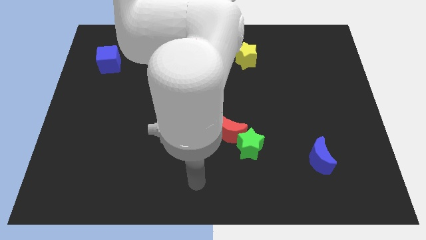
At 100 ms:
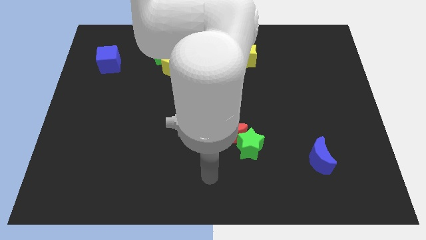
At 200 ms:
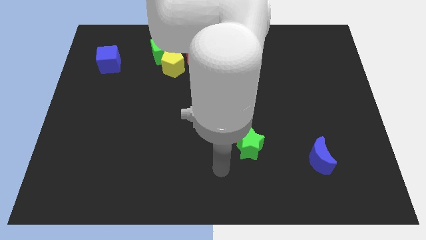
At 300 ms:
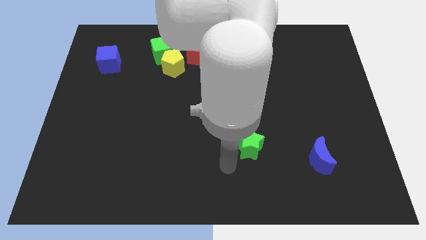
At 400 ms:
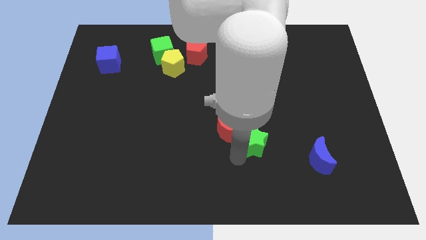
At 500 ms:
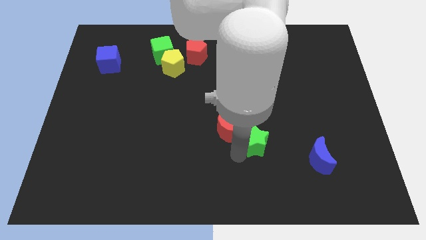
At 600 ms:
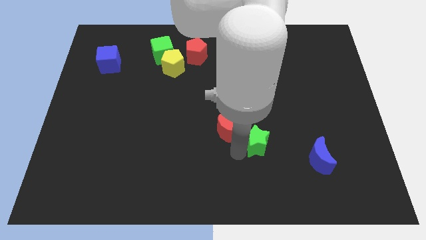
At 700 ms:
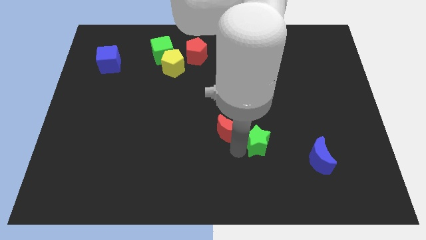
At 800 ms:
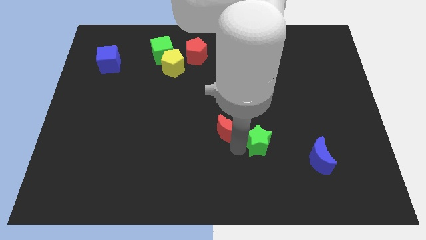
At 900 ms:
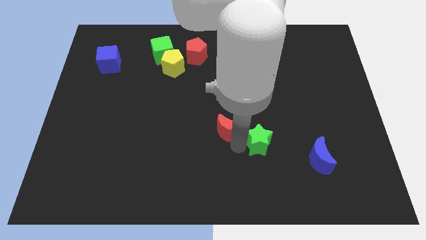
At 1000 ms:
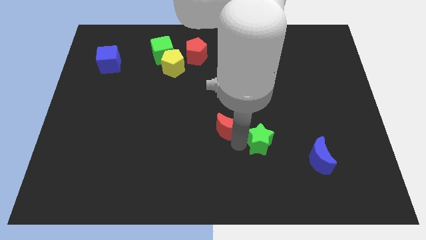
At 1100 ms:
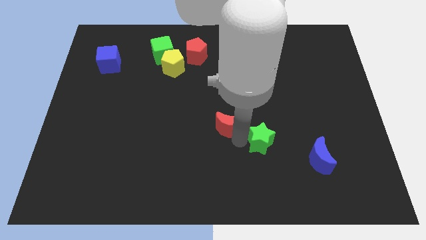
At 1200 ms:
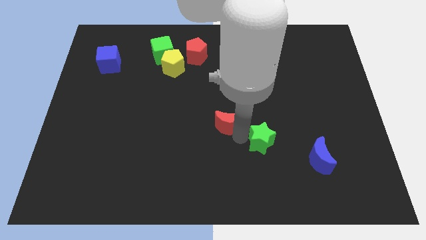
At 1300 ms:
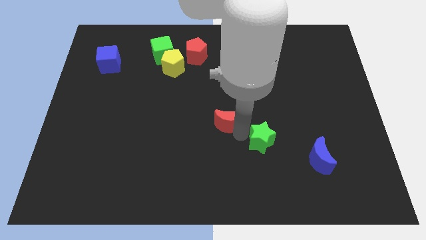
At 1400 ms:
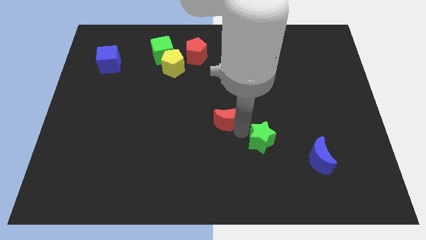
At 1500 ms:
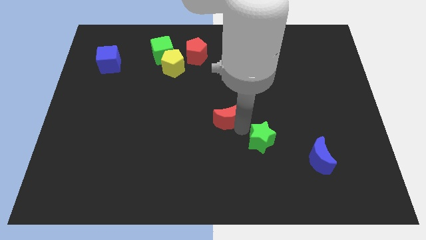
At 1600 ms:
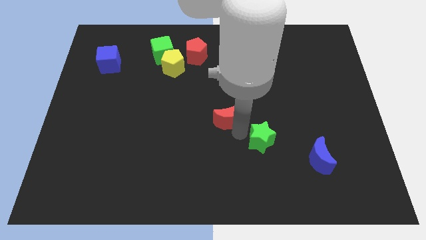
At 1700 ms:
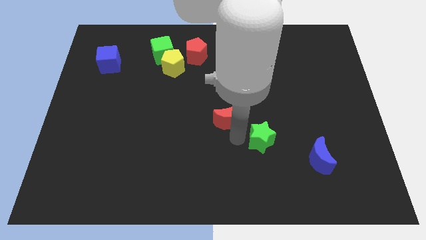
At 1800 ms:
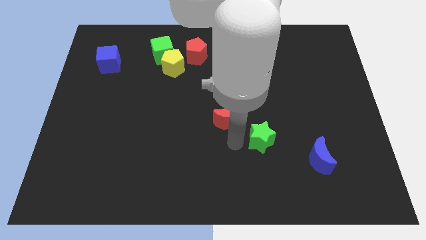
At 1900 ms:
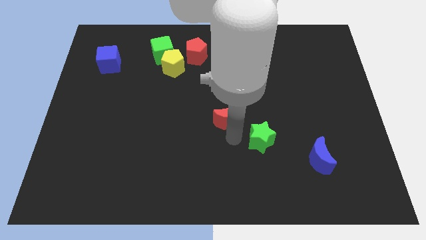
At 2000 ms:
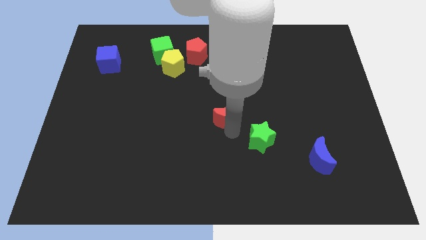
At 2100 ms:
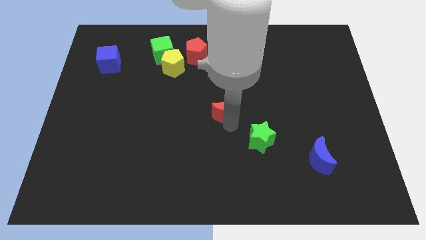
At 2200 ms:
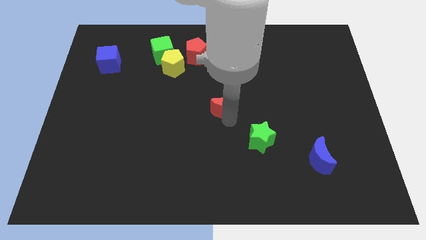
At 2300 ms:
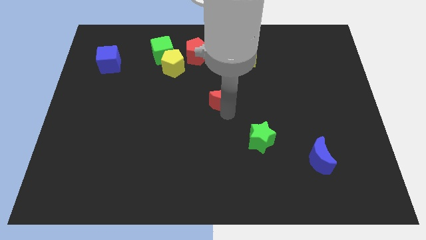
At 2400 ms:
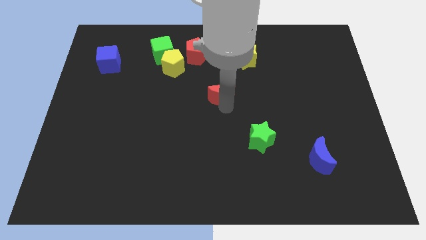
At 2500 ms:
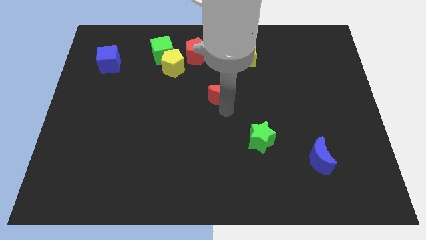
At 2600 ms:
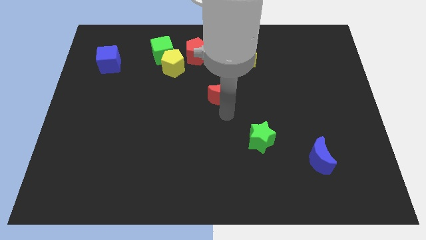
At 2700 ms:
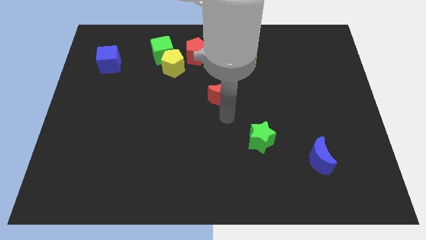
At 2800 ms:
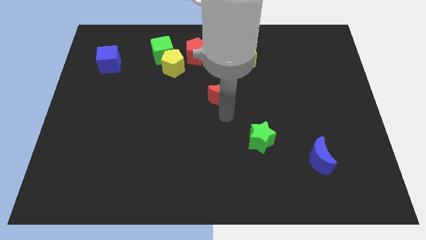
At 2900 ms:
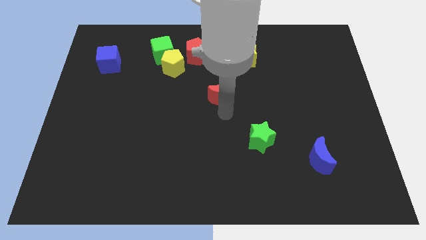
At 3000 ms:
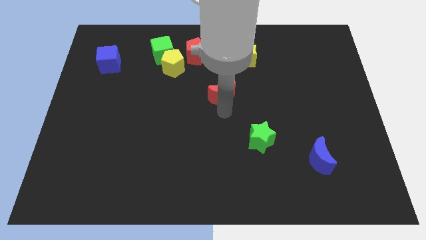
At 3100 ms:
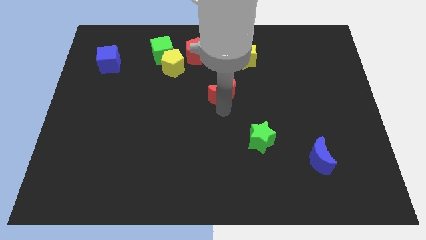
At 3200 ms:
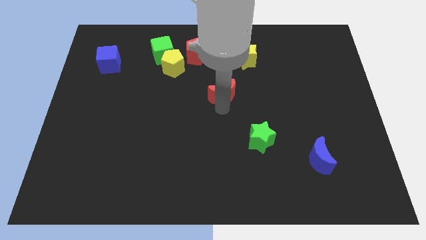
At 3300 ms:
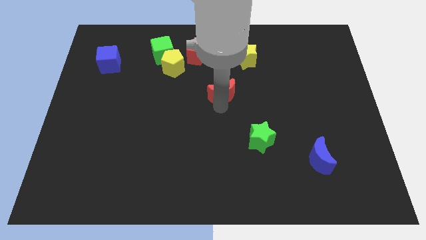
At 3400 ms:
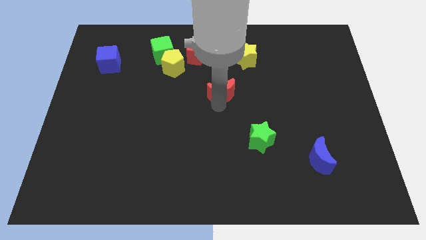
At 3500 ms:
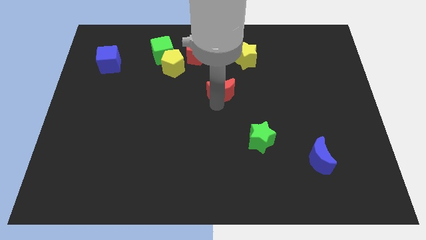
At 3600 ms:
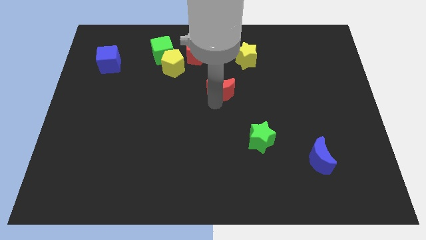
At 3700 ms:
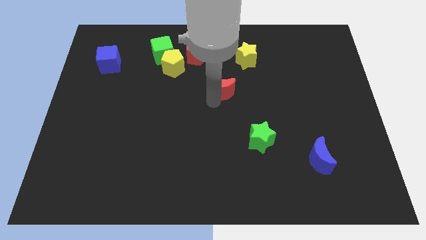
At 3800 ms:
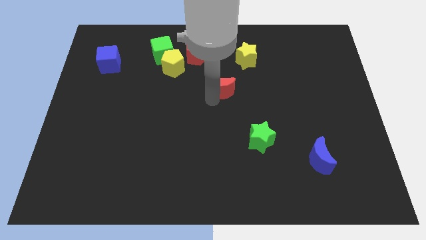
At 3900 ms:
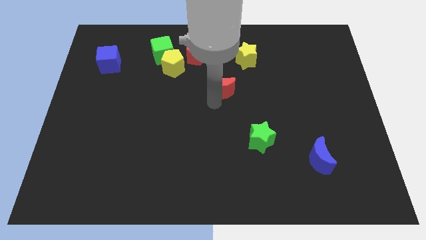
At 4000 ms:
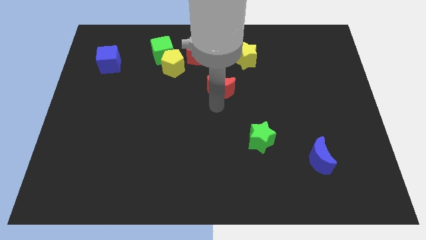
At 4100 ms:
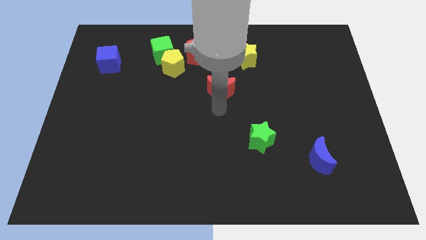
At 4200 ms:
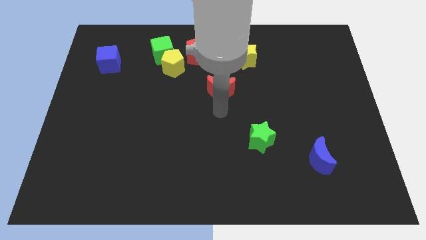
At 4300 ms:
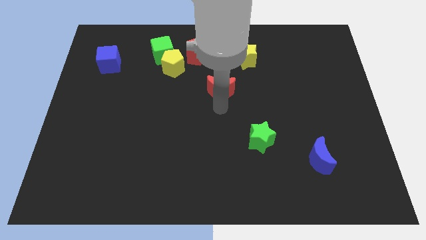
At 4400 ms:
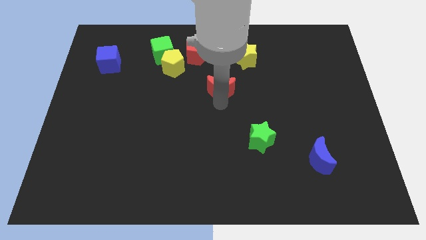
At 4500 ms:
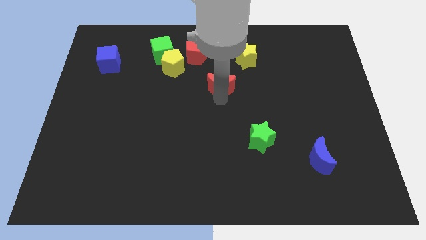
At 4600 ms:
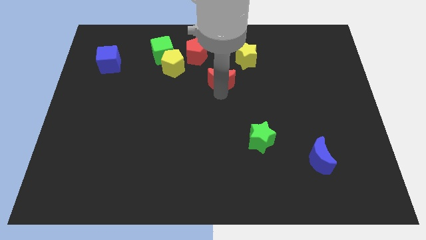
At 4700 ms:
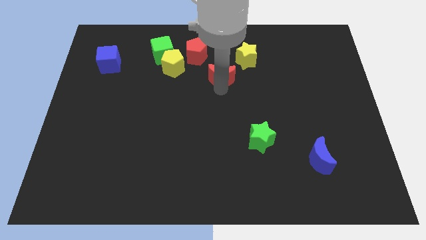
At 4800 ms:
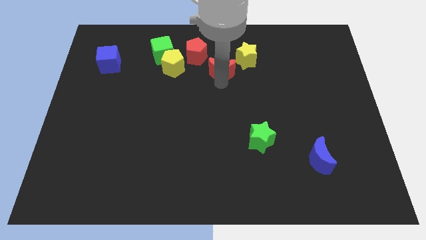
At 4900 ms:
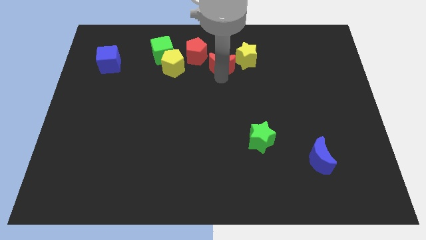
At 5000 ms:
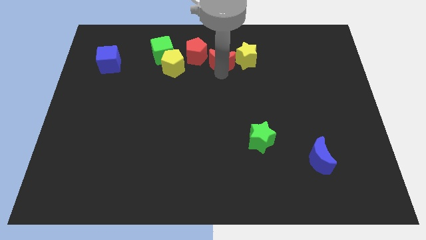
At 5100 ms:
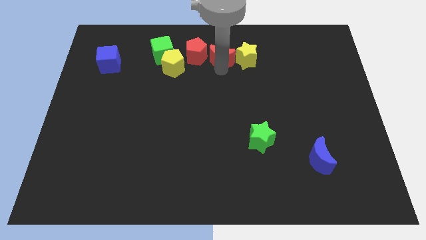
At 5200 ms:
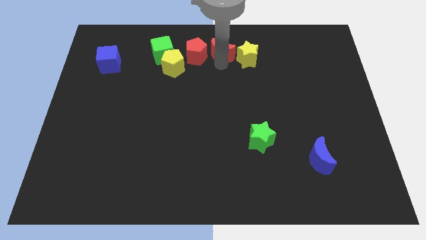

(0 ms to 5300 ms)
push the red moon to the towards your base

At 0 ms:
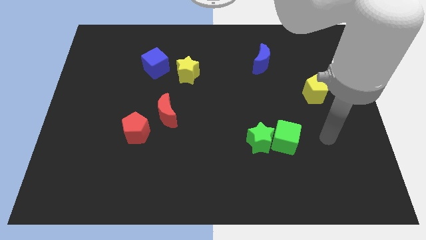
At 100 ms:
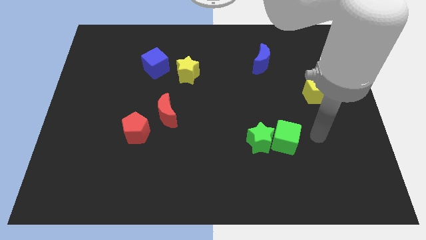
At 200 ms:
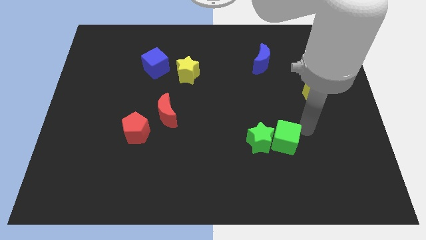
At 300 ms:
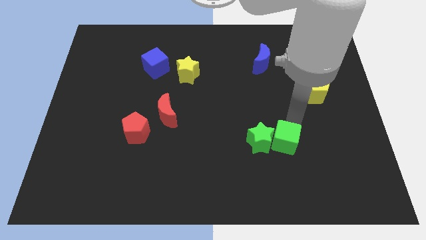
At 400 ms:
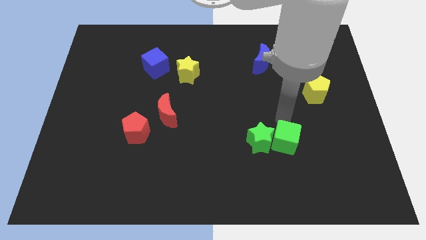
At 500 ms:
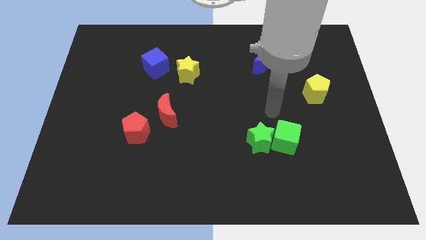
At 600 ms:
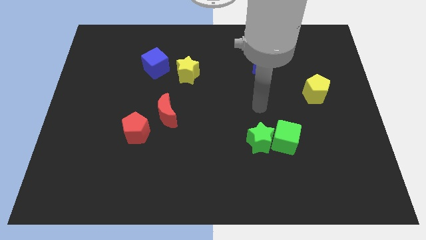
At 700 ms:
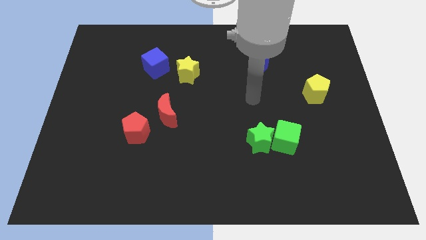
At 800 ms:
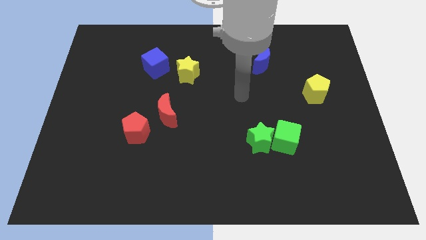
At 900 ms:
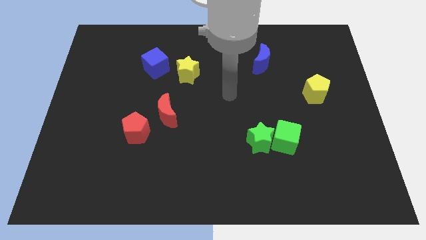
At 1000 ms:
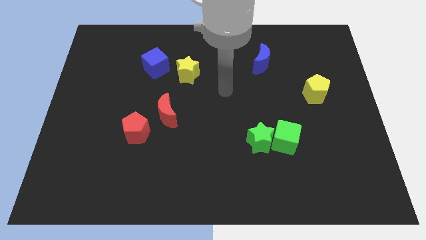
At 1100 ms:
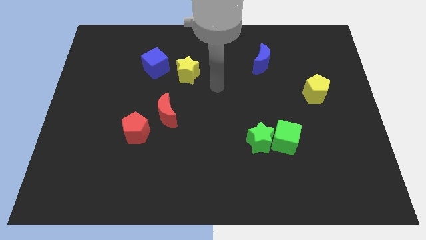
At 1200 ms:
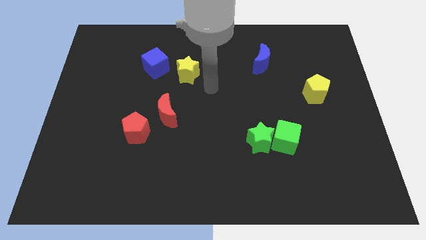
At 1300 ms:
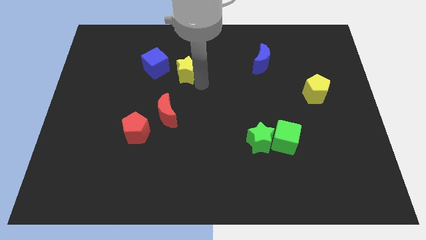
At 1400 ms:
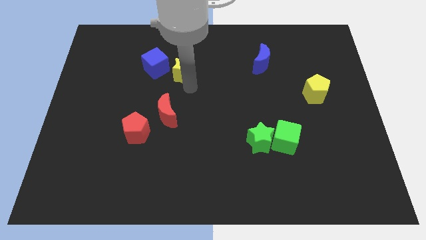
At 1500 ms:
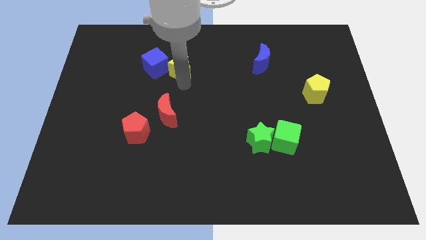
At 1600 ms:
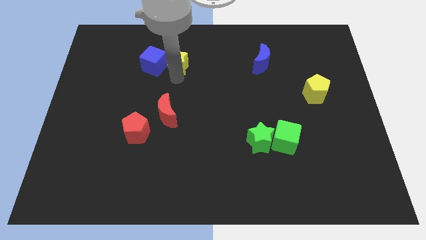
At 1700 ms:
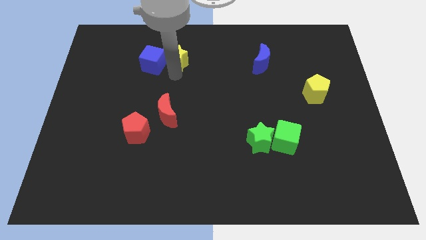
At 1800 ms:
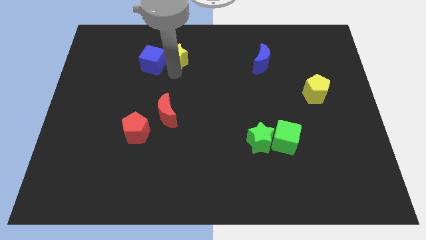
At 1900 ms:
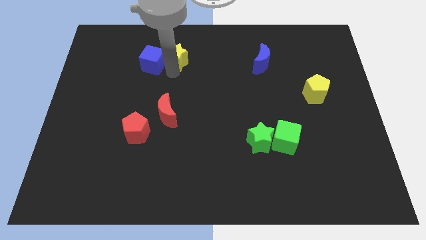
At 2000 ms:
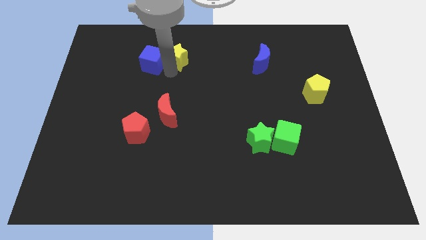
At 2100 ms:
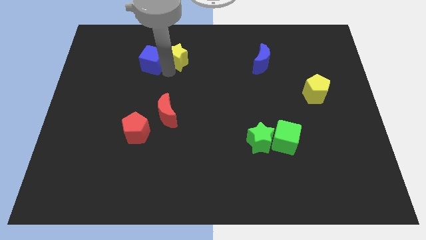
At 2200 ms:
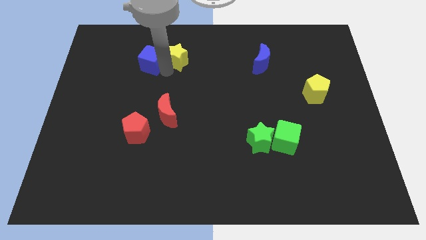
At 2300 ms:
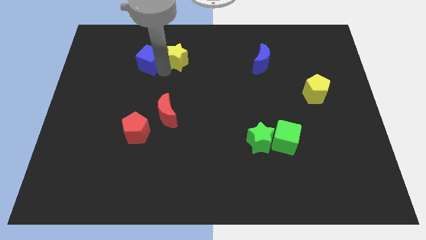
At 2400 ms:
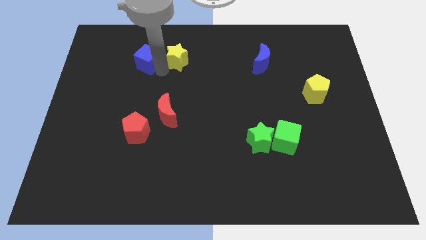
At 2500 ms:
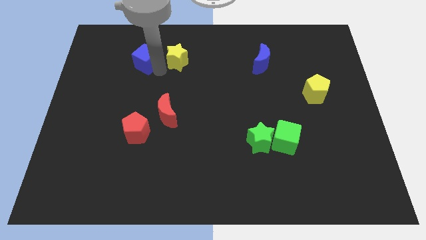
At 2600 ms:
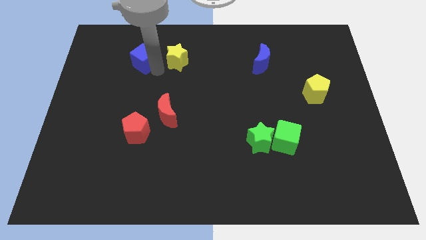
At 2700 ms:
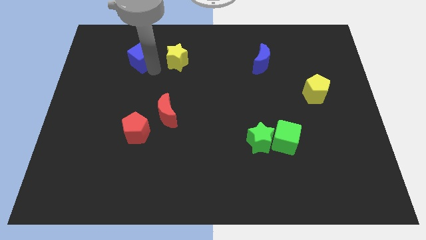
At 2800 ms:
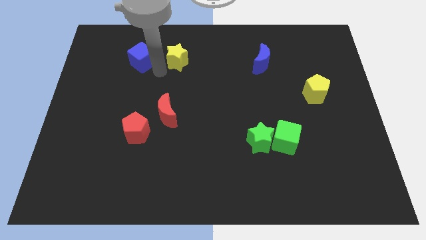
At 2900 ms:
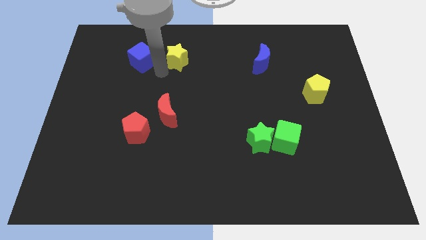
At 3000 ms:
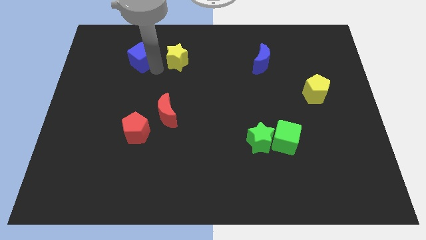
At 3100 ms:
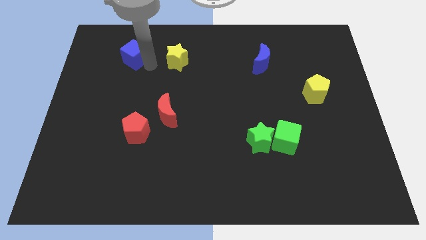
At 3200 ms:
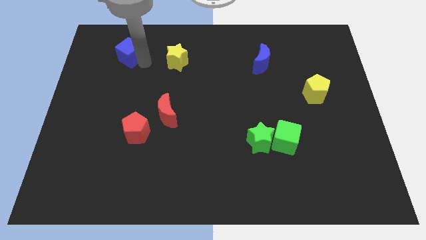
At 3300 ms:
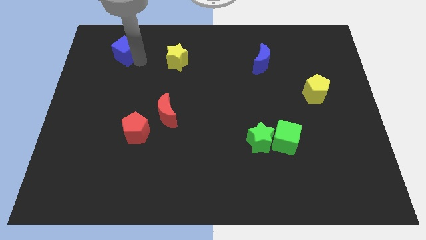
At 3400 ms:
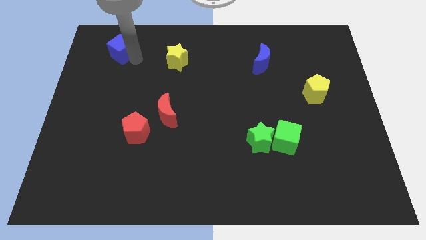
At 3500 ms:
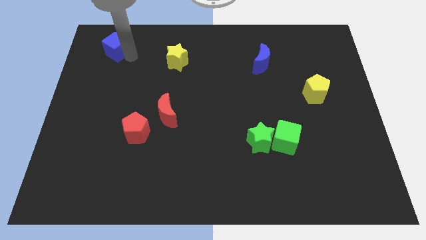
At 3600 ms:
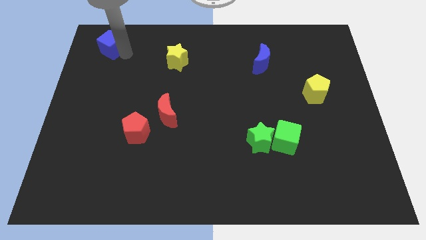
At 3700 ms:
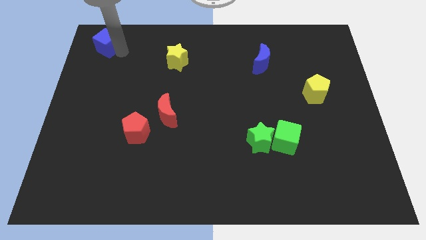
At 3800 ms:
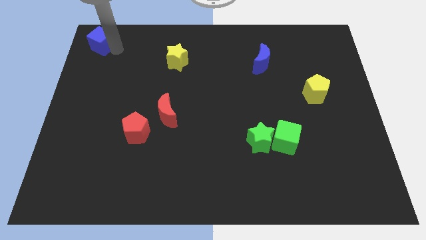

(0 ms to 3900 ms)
move the blue cube to the upper left corner
